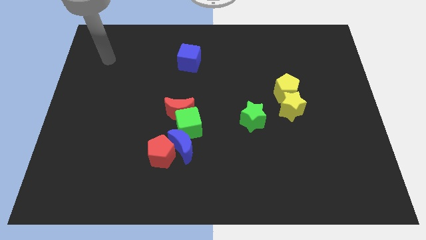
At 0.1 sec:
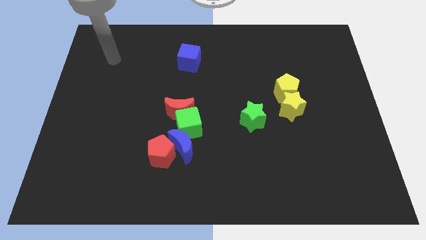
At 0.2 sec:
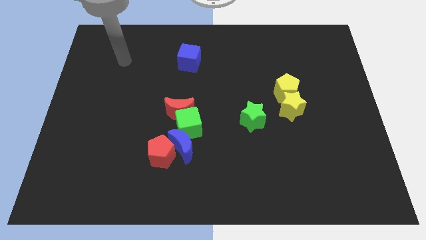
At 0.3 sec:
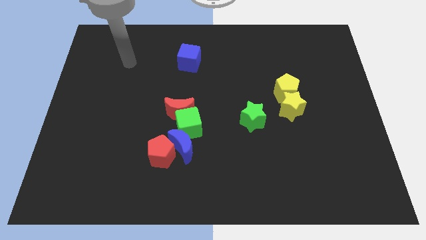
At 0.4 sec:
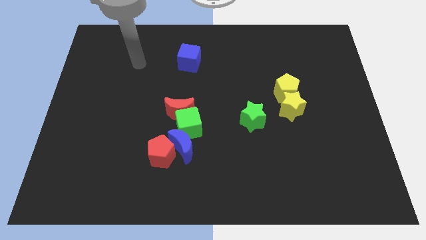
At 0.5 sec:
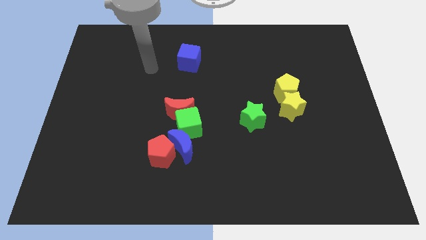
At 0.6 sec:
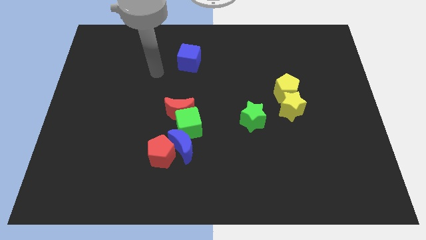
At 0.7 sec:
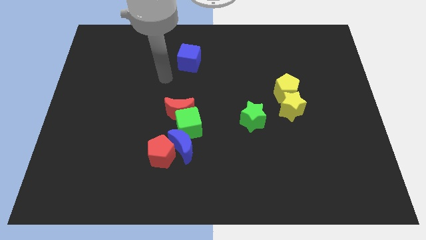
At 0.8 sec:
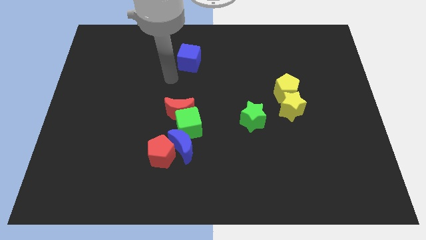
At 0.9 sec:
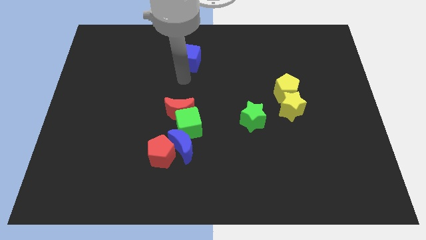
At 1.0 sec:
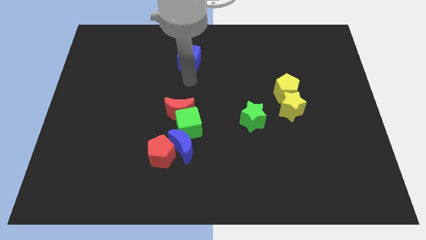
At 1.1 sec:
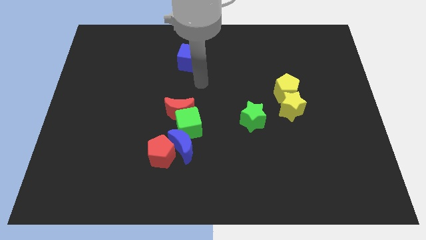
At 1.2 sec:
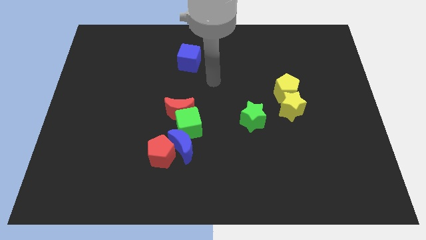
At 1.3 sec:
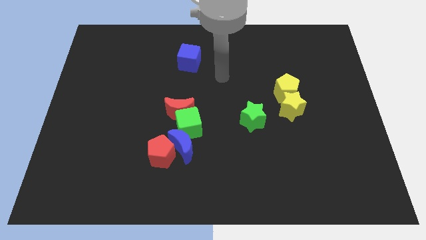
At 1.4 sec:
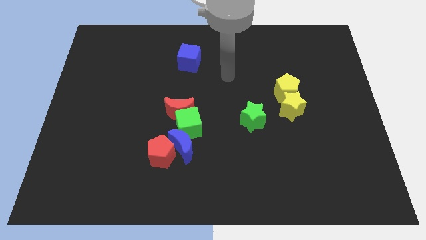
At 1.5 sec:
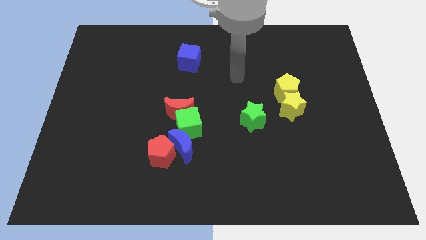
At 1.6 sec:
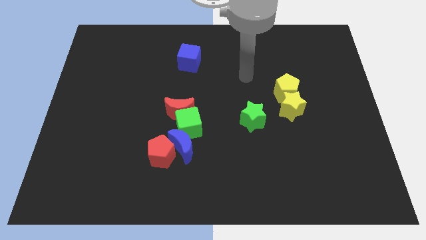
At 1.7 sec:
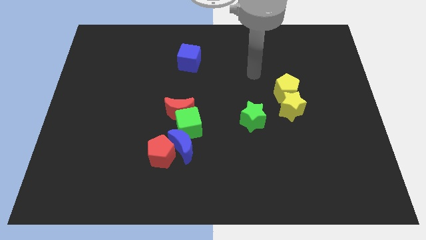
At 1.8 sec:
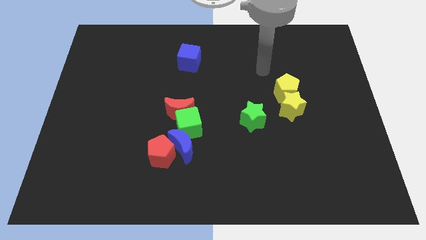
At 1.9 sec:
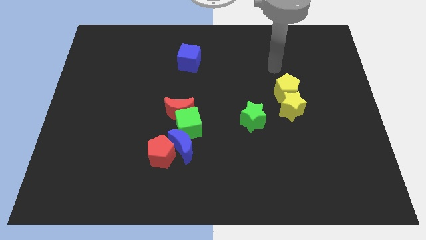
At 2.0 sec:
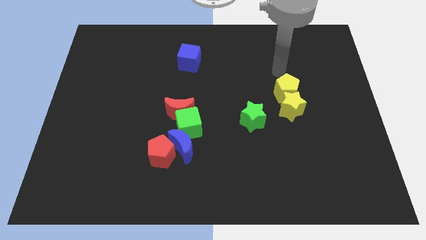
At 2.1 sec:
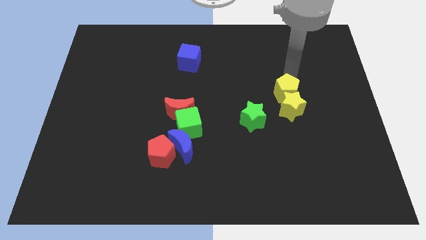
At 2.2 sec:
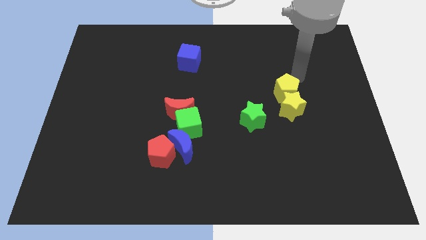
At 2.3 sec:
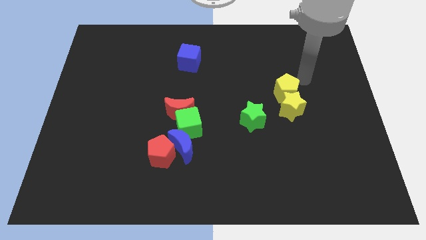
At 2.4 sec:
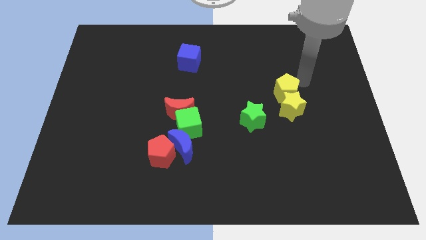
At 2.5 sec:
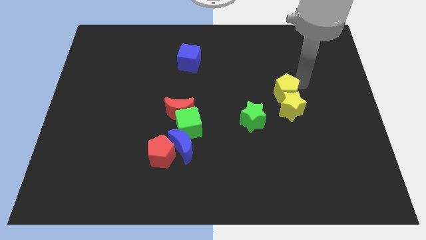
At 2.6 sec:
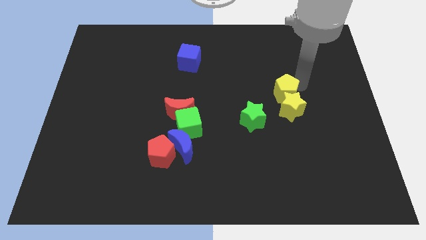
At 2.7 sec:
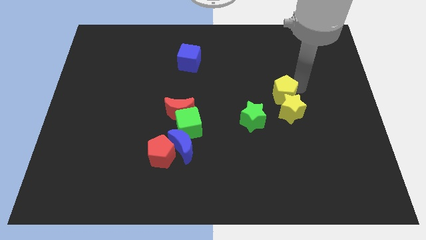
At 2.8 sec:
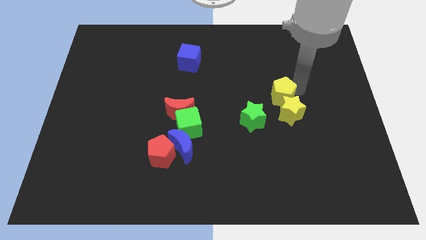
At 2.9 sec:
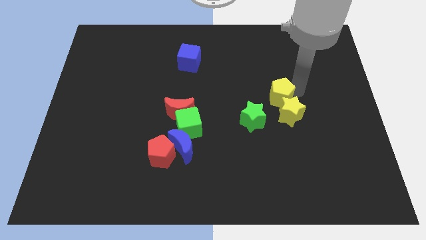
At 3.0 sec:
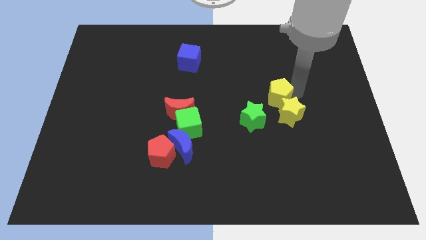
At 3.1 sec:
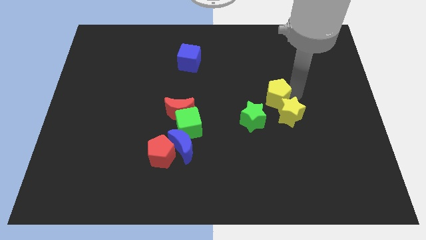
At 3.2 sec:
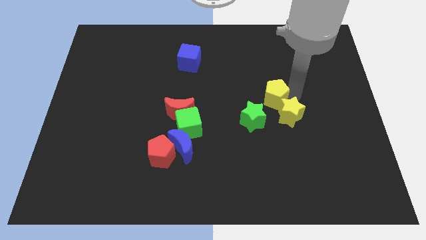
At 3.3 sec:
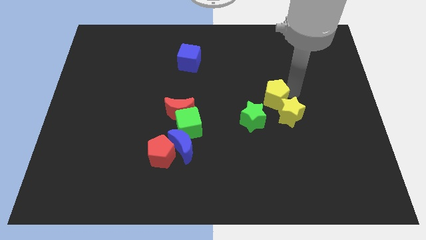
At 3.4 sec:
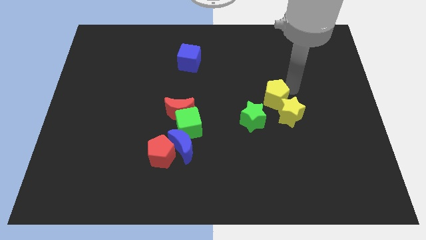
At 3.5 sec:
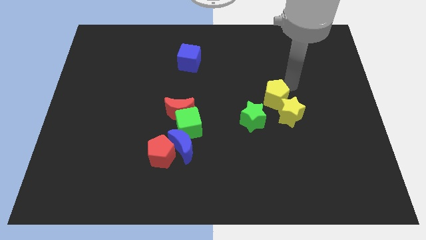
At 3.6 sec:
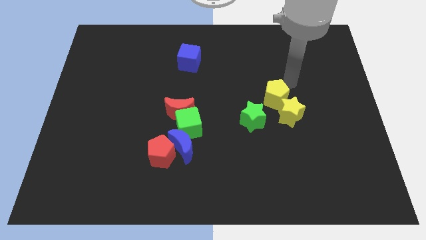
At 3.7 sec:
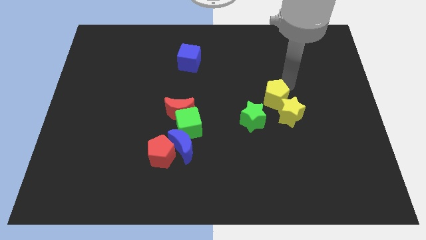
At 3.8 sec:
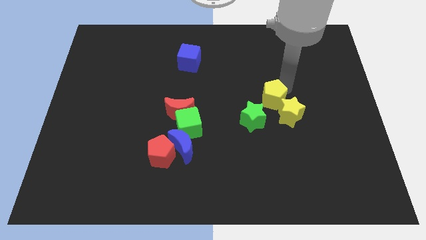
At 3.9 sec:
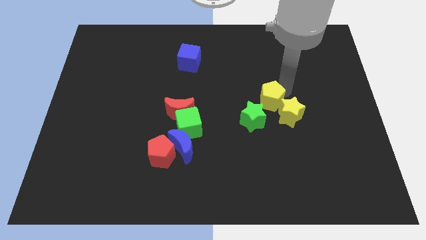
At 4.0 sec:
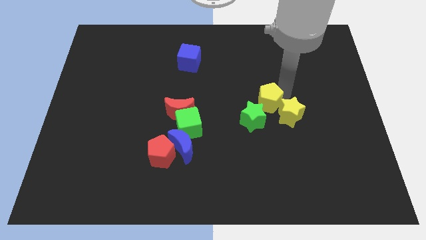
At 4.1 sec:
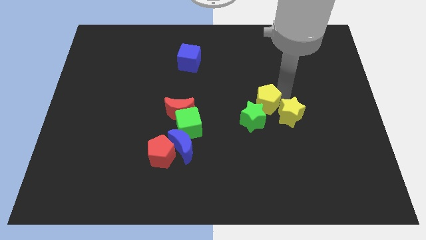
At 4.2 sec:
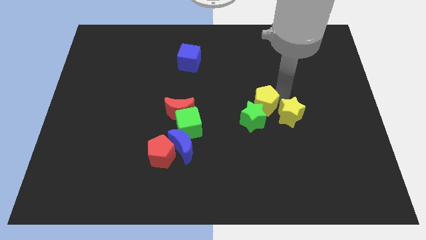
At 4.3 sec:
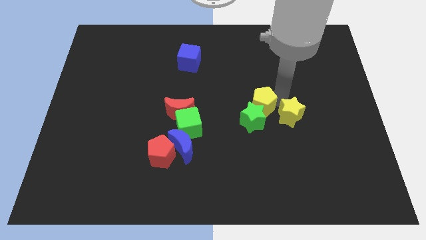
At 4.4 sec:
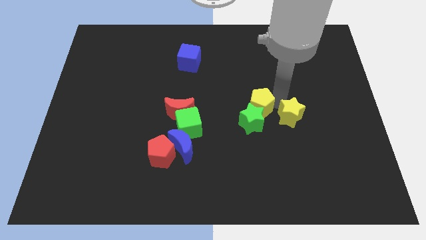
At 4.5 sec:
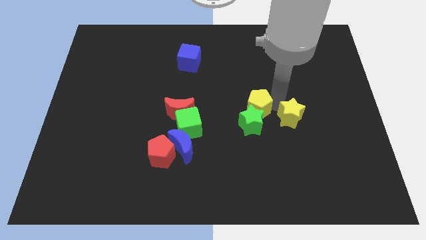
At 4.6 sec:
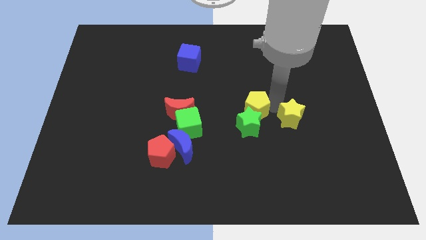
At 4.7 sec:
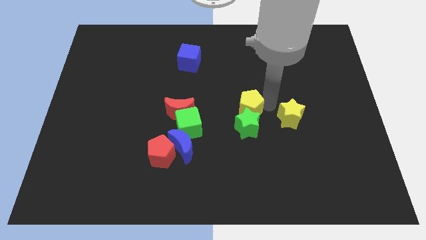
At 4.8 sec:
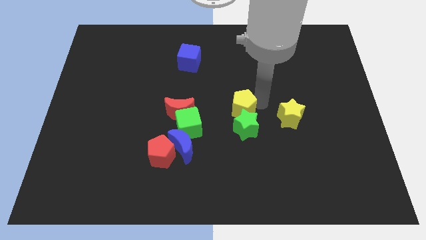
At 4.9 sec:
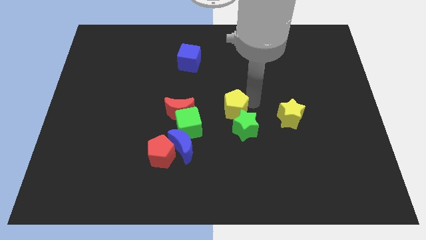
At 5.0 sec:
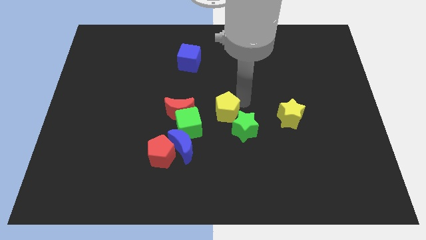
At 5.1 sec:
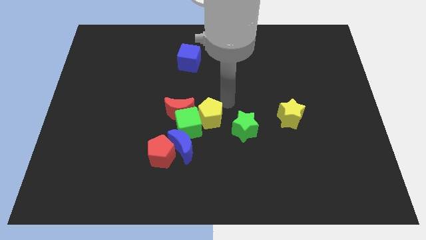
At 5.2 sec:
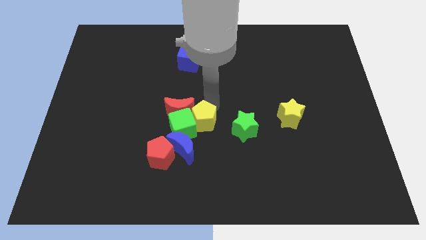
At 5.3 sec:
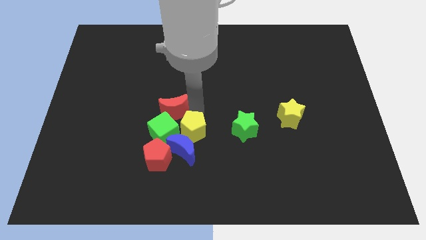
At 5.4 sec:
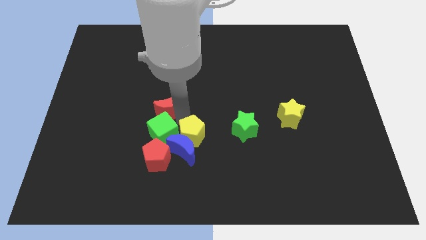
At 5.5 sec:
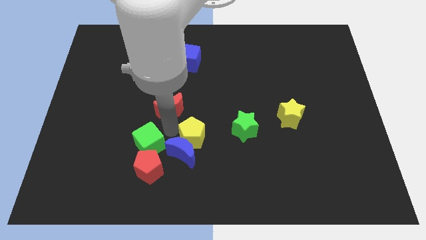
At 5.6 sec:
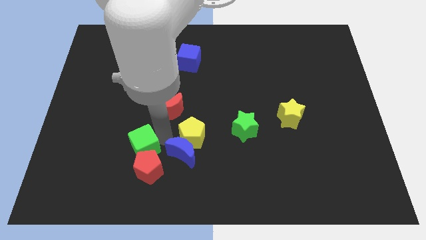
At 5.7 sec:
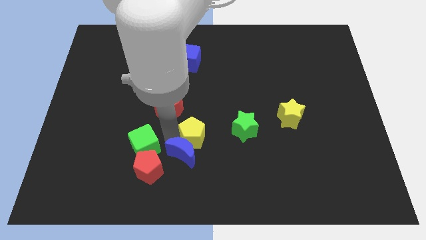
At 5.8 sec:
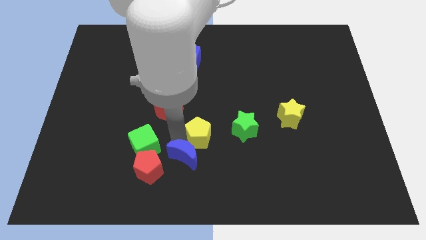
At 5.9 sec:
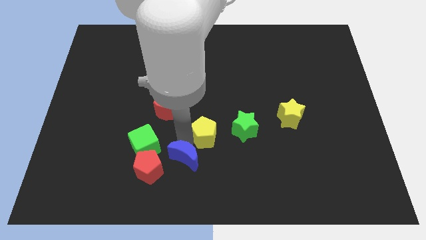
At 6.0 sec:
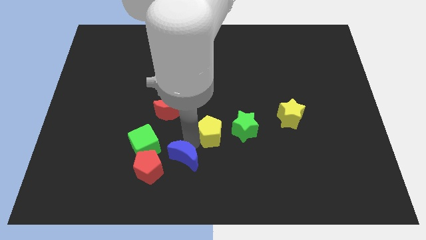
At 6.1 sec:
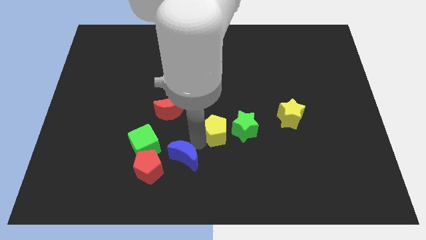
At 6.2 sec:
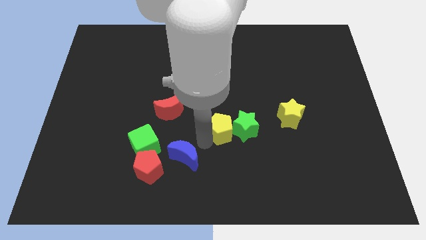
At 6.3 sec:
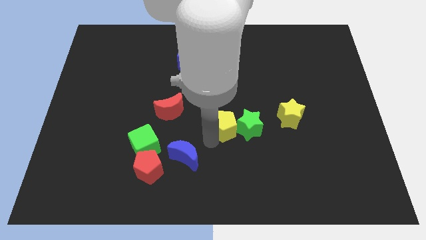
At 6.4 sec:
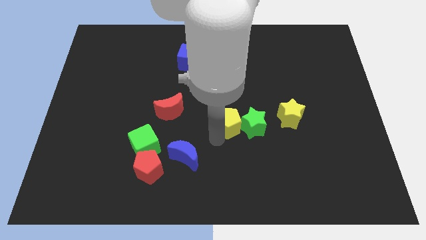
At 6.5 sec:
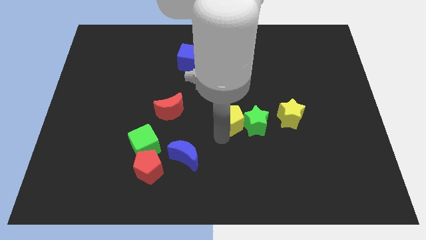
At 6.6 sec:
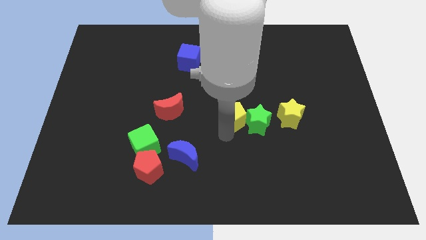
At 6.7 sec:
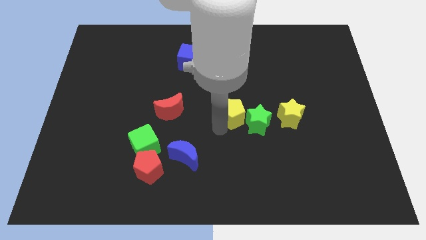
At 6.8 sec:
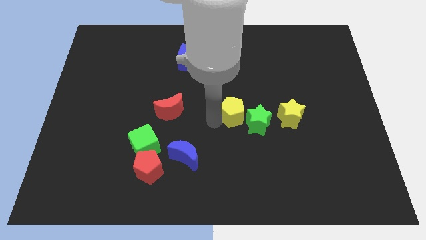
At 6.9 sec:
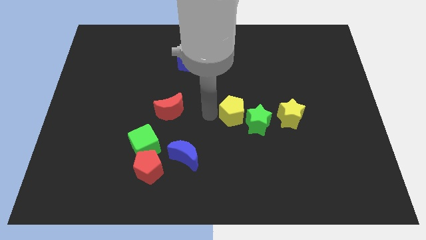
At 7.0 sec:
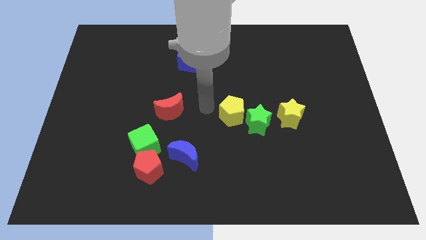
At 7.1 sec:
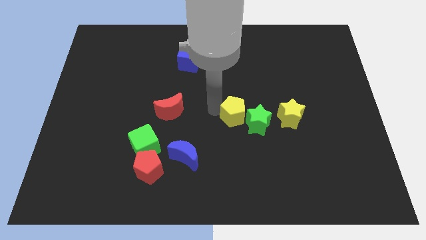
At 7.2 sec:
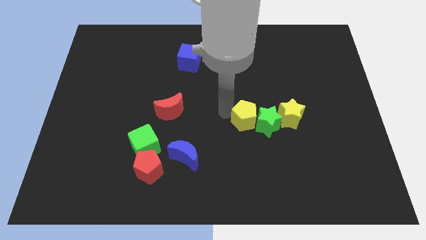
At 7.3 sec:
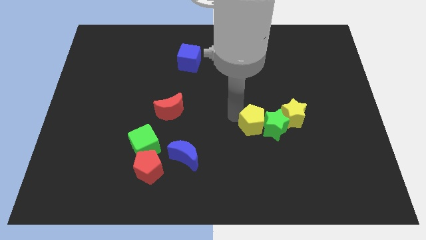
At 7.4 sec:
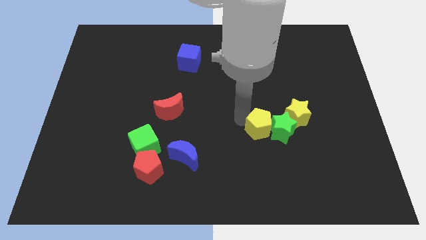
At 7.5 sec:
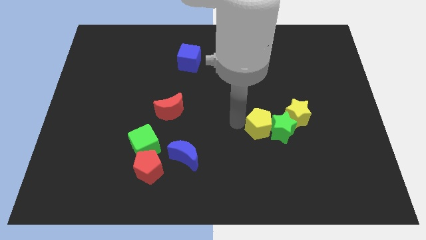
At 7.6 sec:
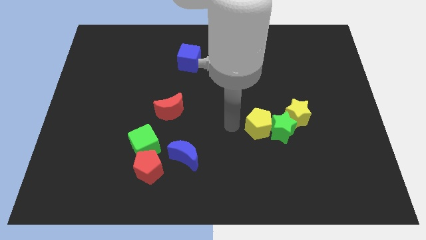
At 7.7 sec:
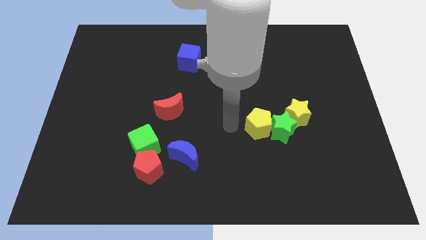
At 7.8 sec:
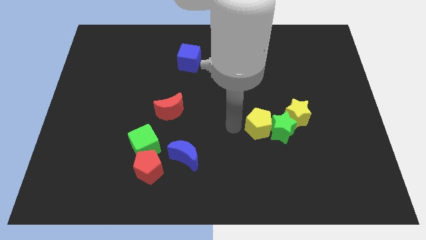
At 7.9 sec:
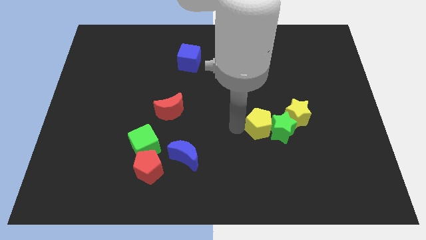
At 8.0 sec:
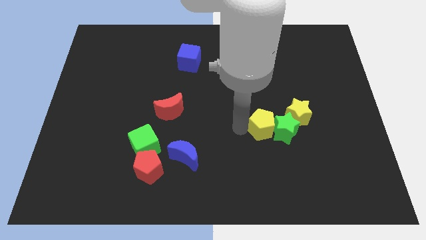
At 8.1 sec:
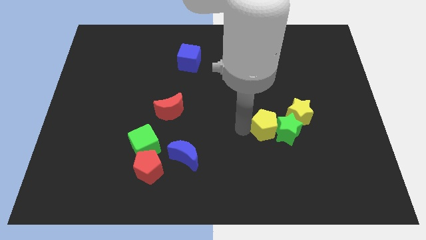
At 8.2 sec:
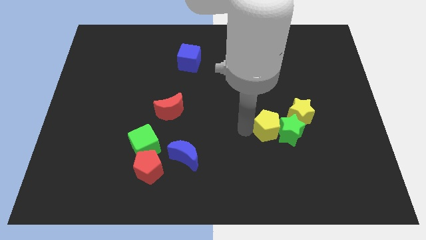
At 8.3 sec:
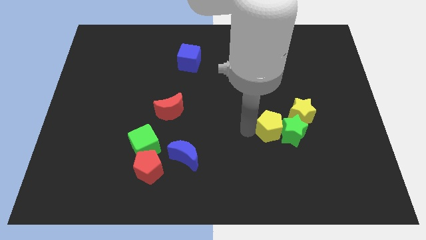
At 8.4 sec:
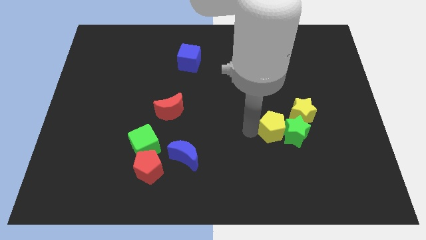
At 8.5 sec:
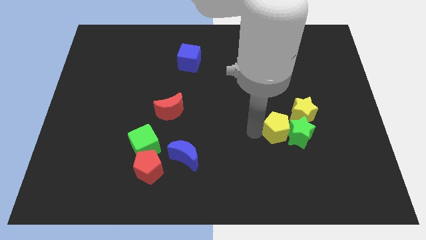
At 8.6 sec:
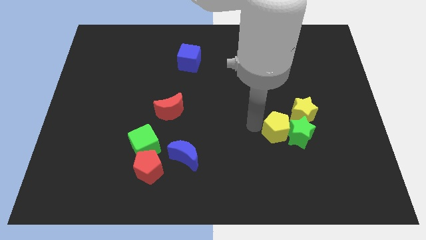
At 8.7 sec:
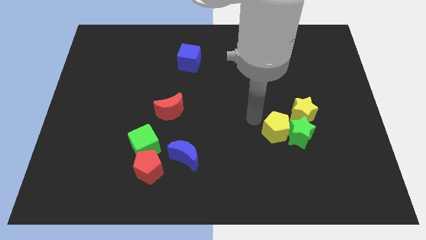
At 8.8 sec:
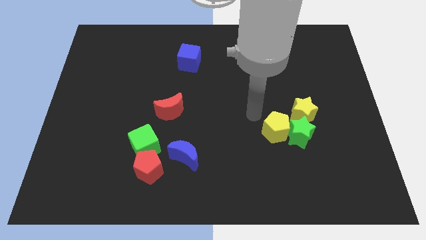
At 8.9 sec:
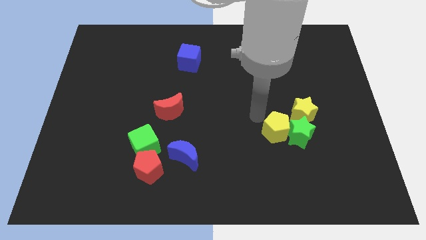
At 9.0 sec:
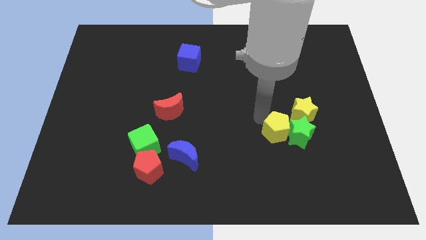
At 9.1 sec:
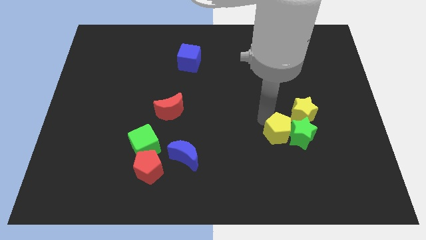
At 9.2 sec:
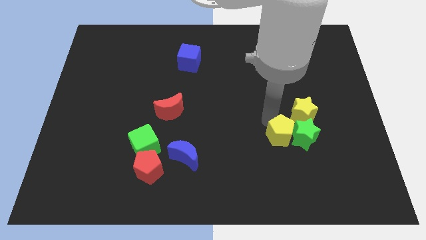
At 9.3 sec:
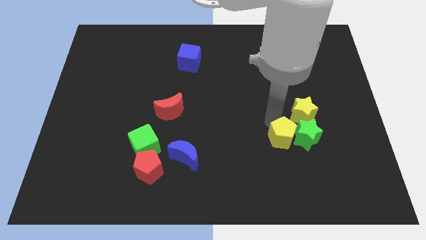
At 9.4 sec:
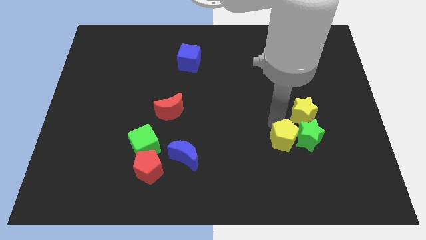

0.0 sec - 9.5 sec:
put the yellow pentagon below the yellow star
